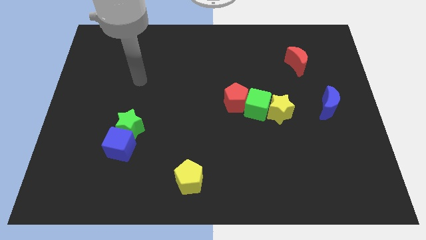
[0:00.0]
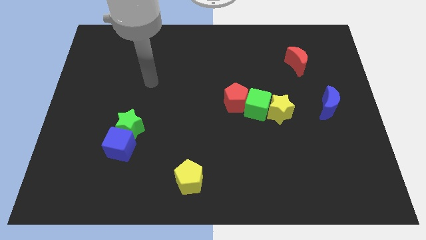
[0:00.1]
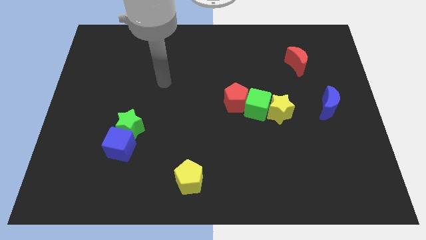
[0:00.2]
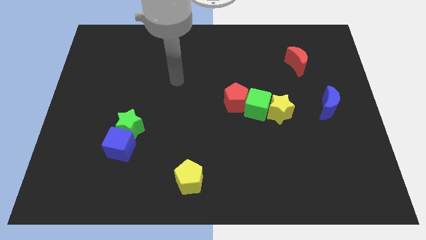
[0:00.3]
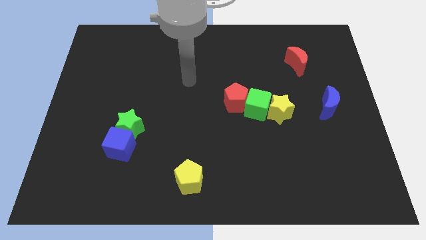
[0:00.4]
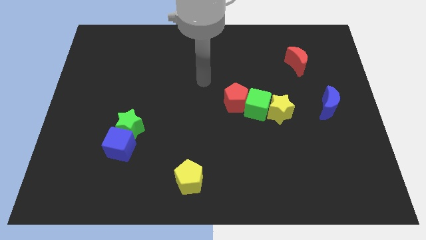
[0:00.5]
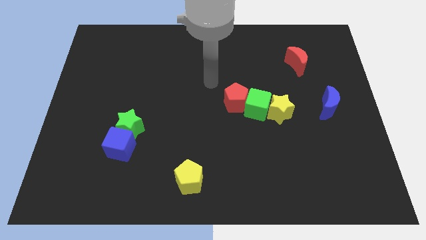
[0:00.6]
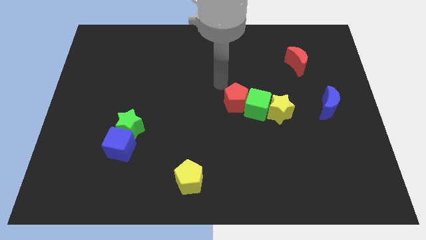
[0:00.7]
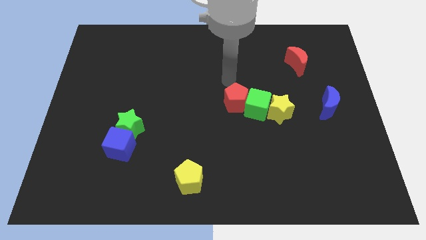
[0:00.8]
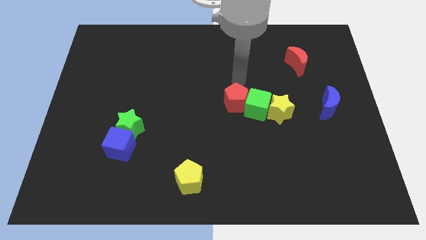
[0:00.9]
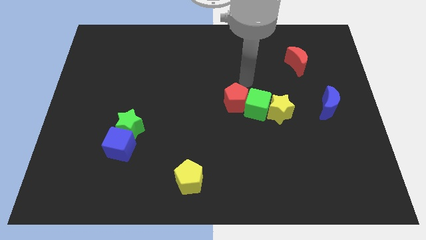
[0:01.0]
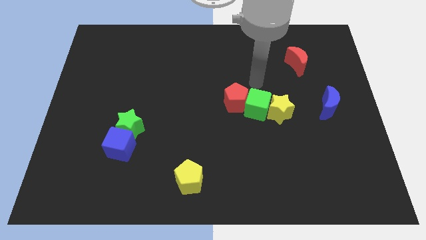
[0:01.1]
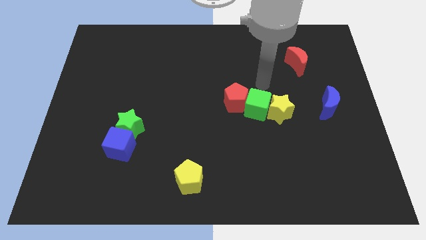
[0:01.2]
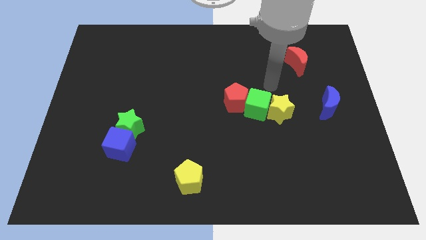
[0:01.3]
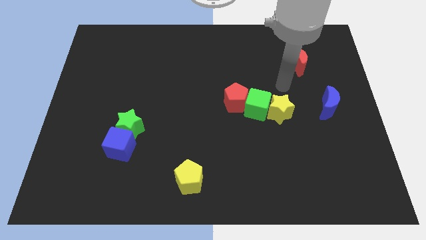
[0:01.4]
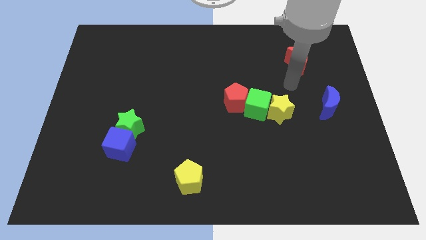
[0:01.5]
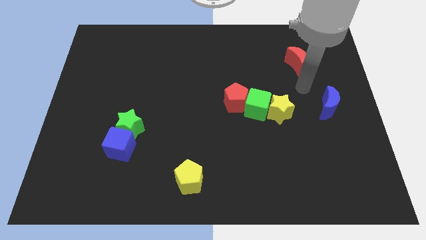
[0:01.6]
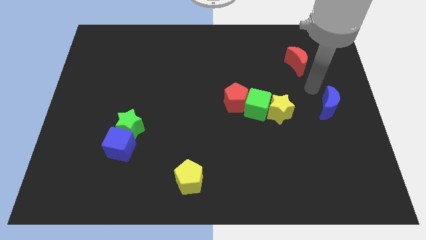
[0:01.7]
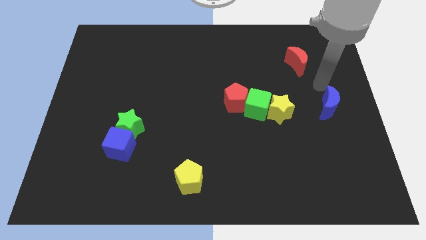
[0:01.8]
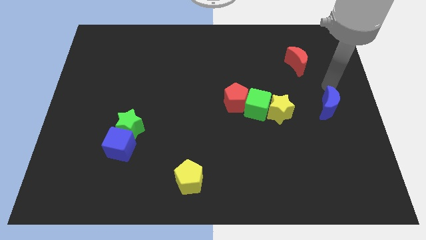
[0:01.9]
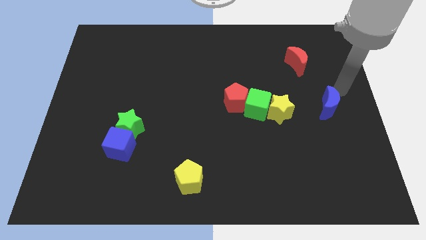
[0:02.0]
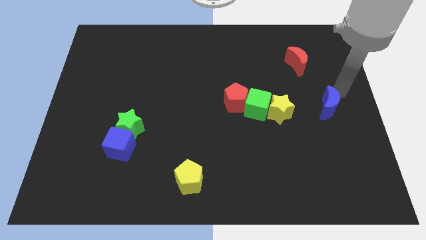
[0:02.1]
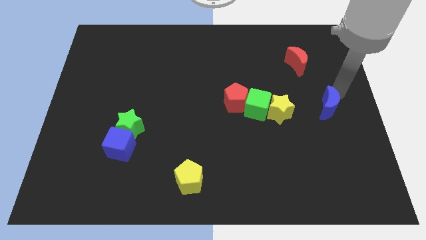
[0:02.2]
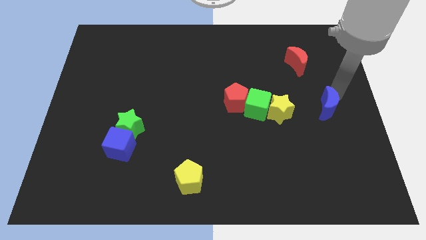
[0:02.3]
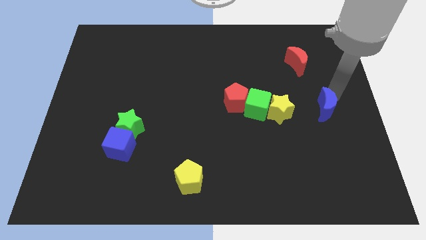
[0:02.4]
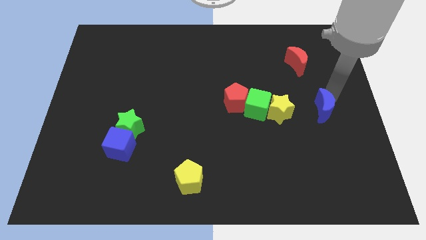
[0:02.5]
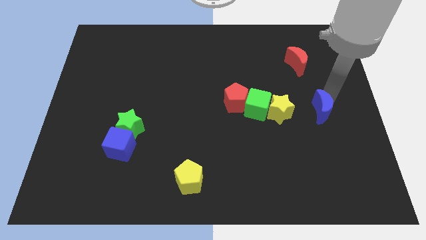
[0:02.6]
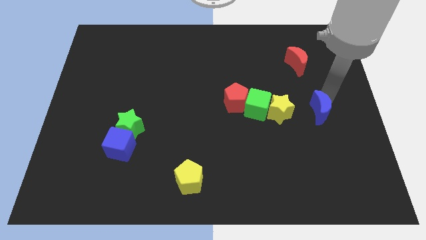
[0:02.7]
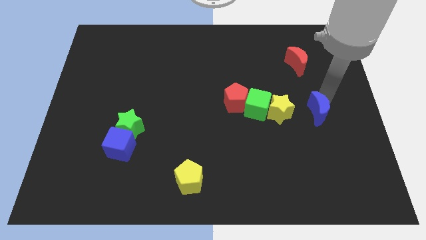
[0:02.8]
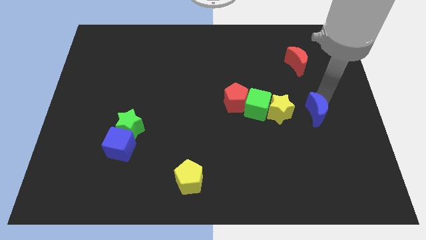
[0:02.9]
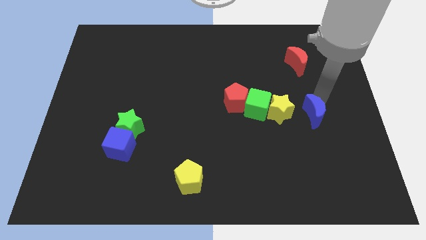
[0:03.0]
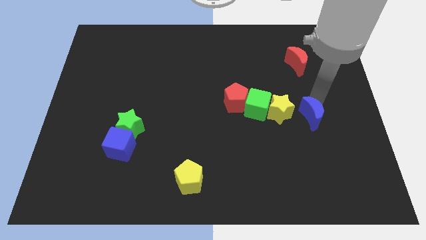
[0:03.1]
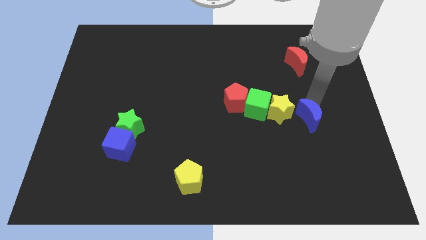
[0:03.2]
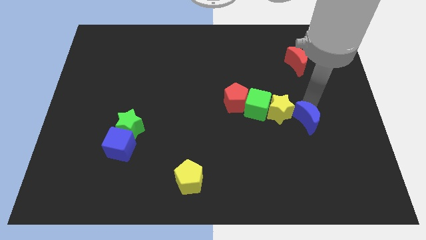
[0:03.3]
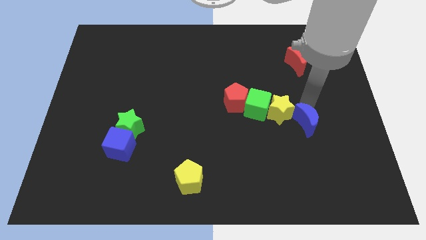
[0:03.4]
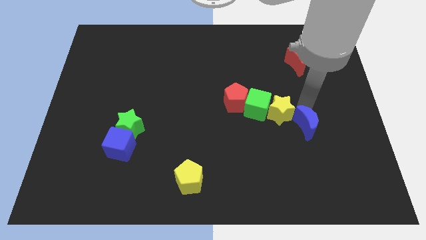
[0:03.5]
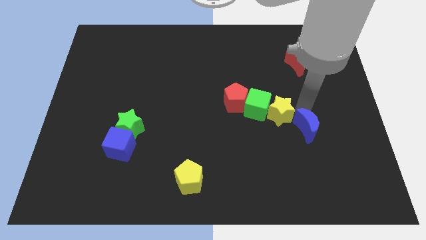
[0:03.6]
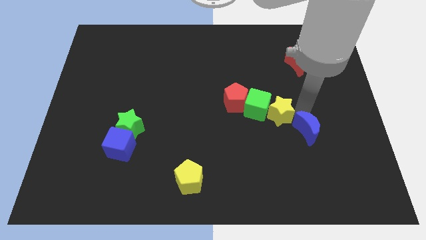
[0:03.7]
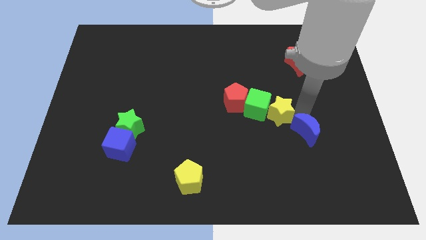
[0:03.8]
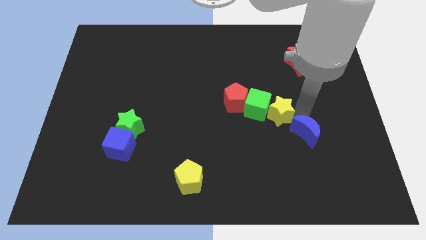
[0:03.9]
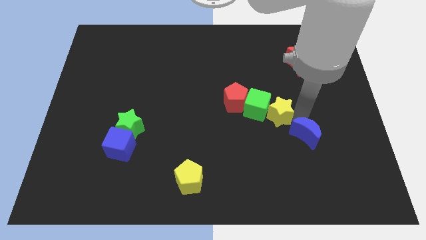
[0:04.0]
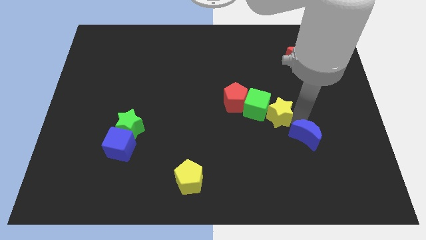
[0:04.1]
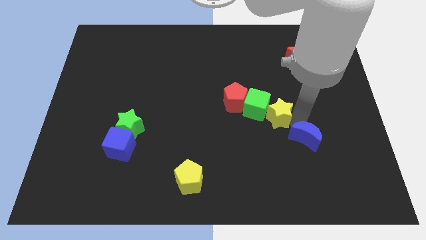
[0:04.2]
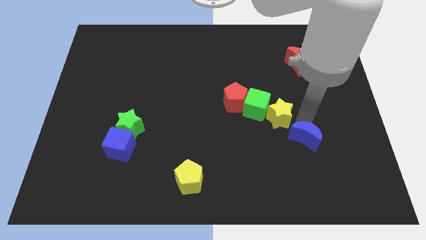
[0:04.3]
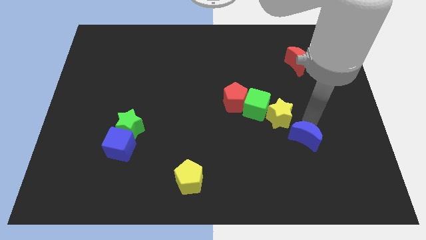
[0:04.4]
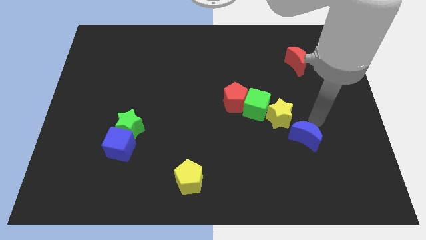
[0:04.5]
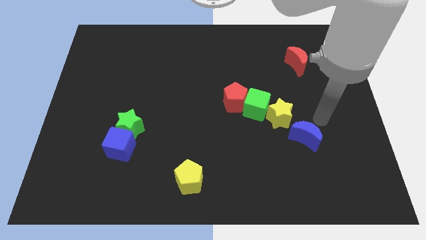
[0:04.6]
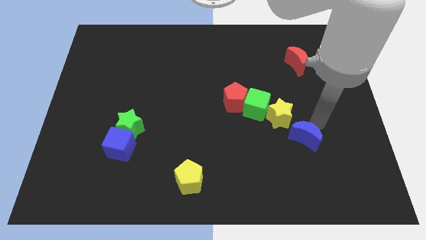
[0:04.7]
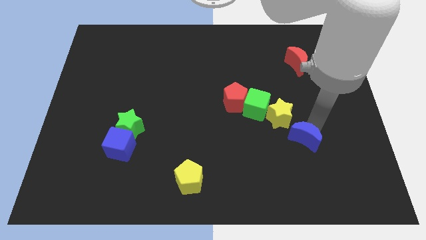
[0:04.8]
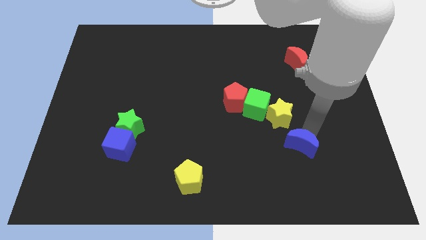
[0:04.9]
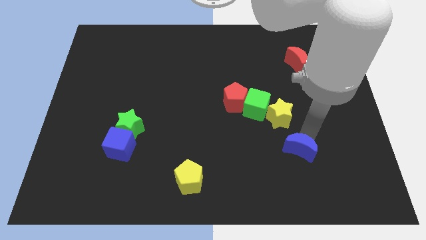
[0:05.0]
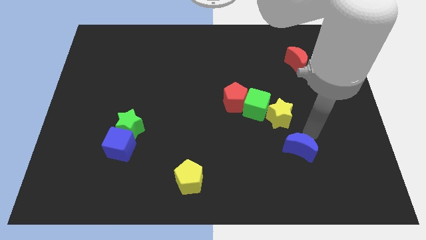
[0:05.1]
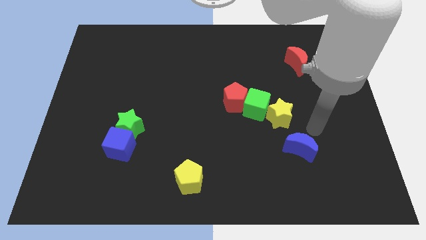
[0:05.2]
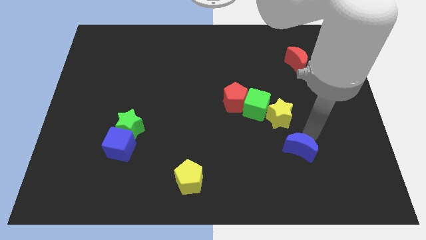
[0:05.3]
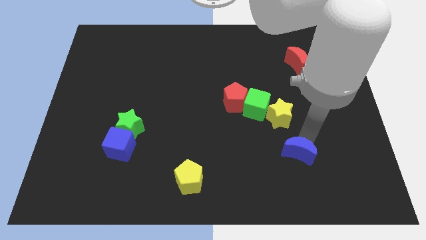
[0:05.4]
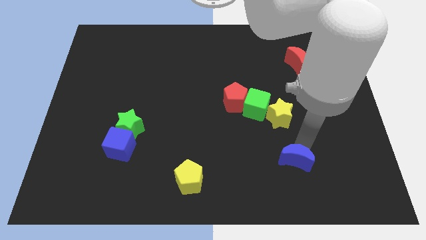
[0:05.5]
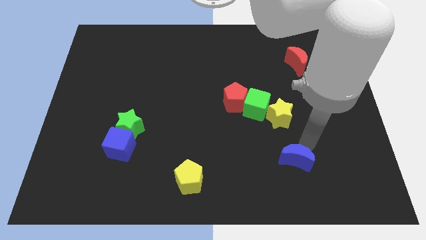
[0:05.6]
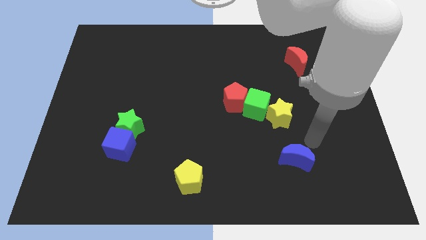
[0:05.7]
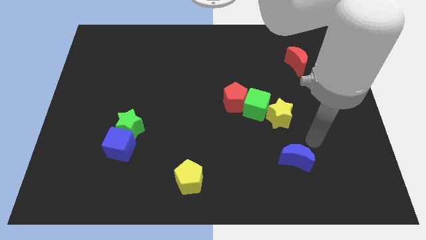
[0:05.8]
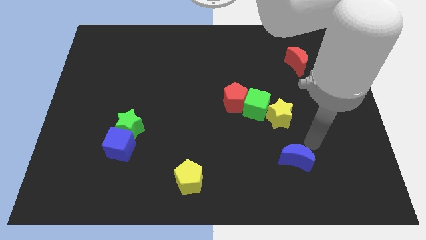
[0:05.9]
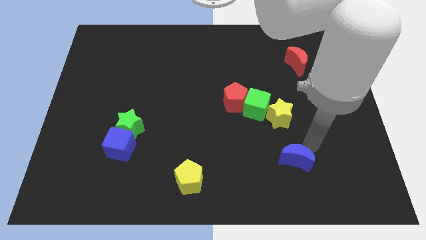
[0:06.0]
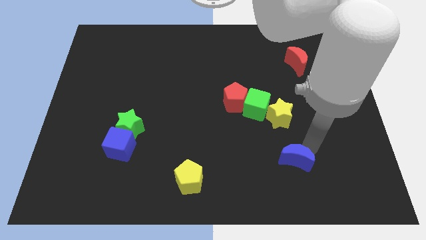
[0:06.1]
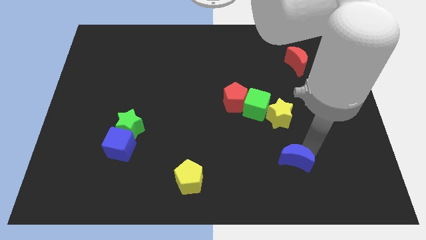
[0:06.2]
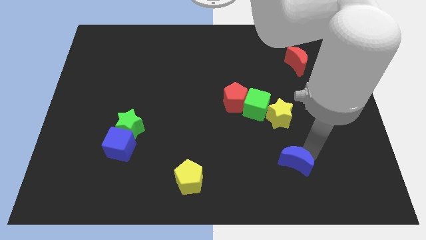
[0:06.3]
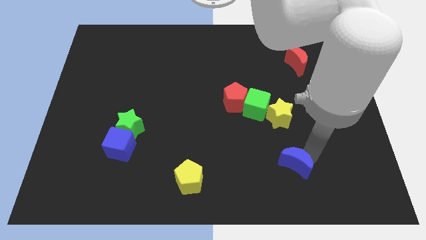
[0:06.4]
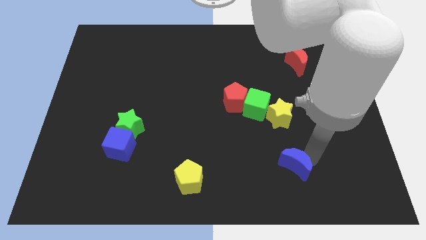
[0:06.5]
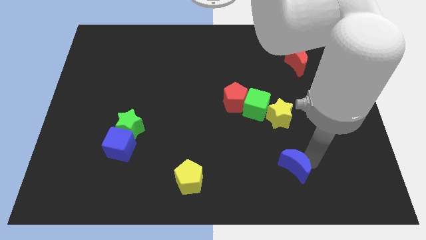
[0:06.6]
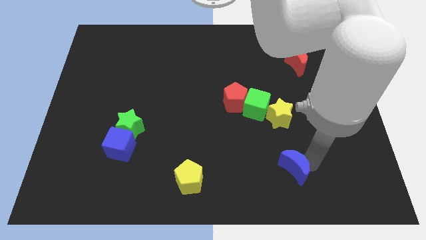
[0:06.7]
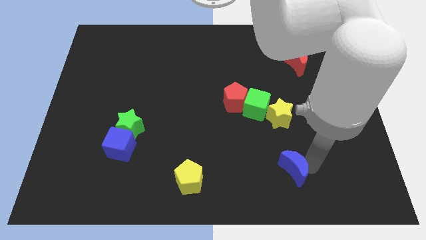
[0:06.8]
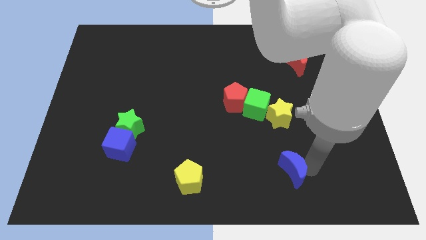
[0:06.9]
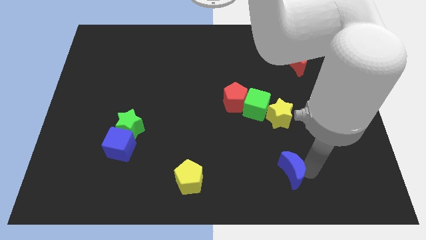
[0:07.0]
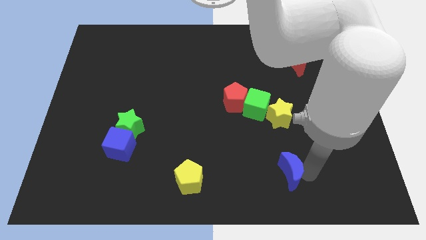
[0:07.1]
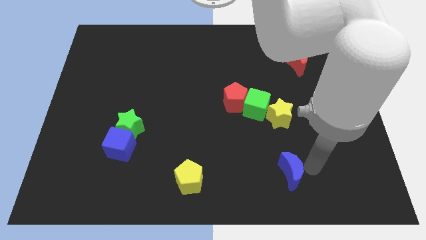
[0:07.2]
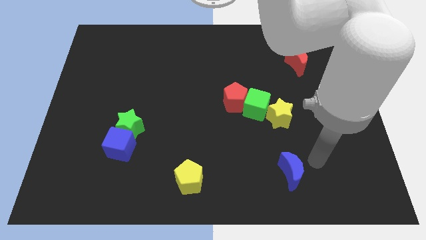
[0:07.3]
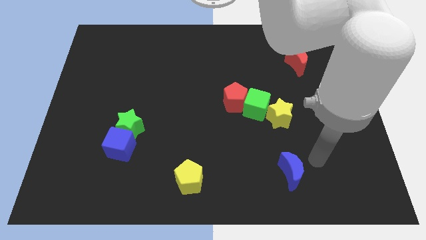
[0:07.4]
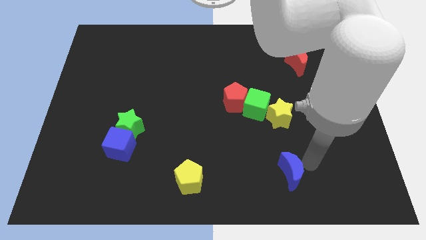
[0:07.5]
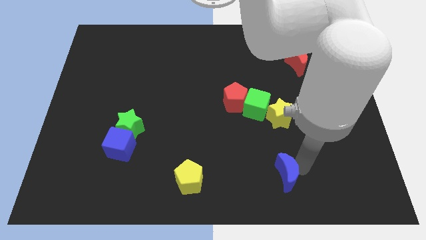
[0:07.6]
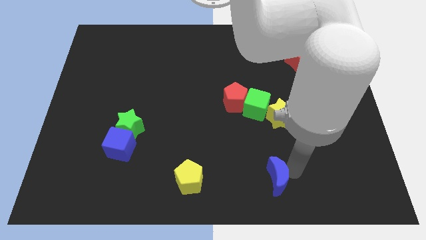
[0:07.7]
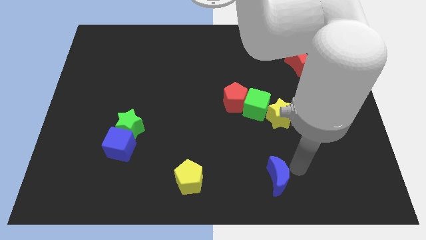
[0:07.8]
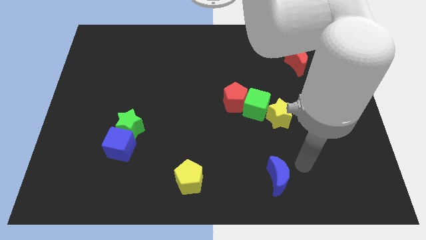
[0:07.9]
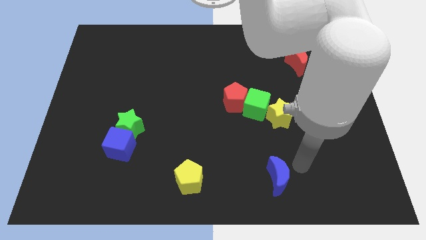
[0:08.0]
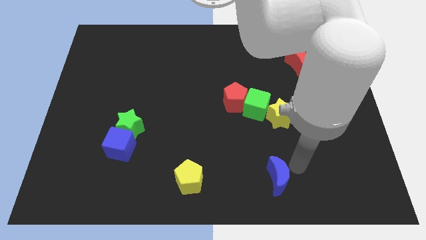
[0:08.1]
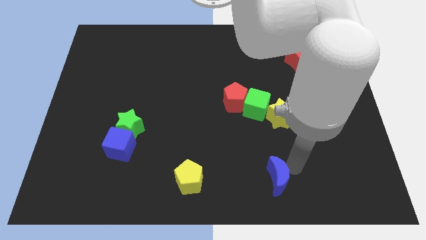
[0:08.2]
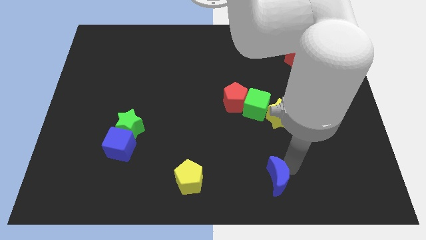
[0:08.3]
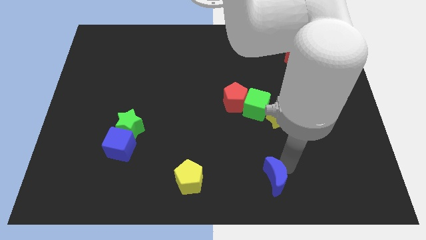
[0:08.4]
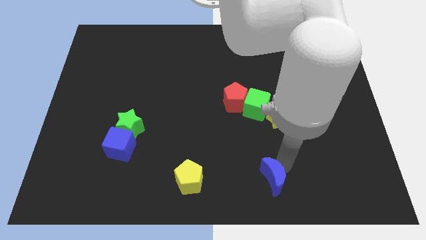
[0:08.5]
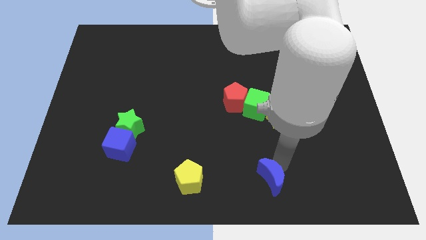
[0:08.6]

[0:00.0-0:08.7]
put the blue moon to the bottom side
